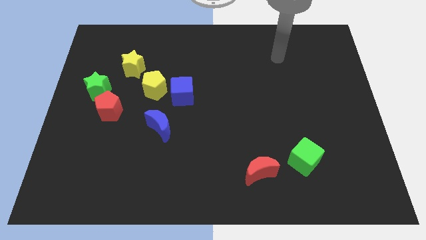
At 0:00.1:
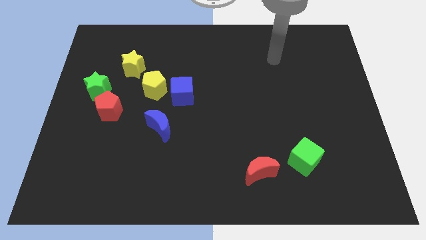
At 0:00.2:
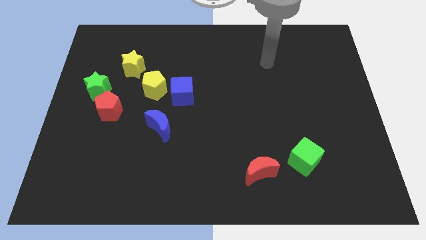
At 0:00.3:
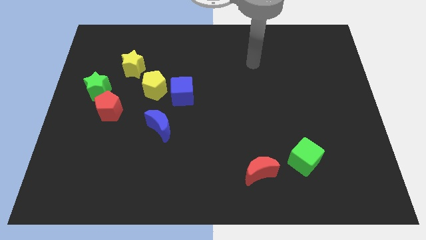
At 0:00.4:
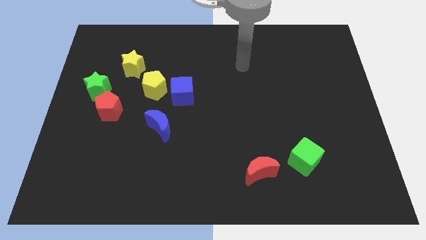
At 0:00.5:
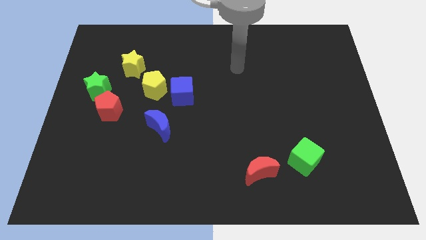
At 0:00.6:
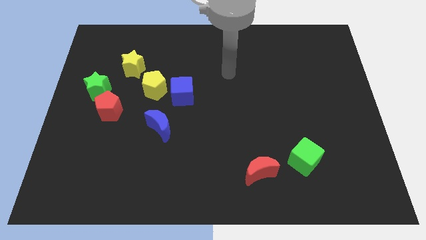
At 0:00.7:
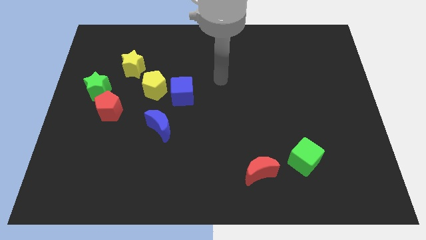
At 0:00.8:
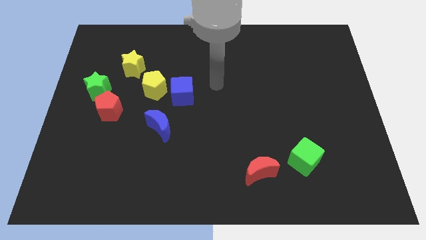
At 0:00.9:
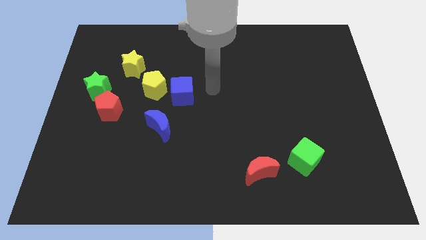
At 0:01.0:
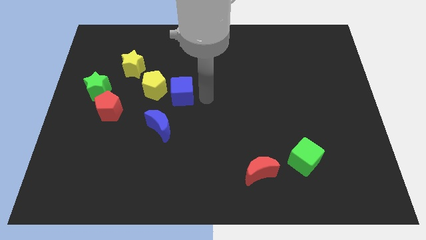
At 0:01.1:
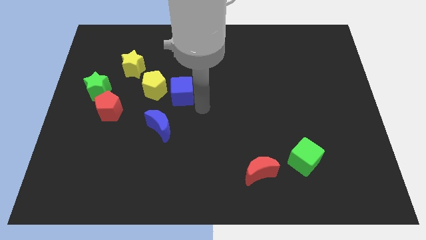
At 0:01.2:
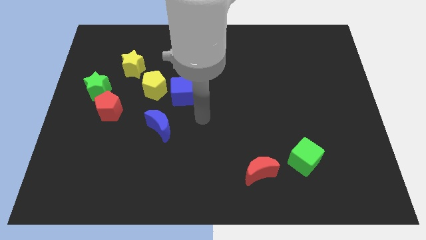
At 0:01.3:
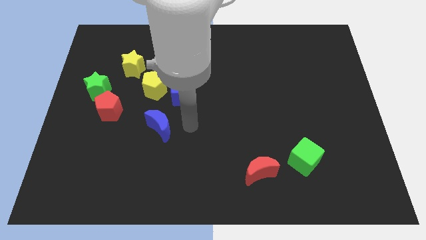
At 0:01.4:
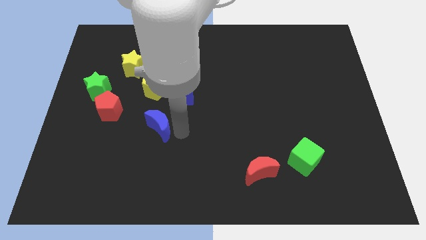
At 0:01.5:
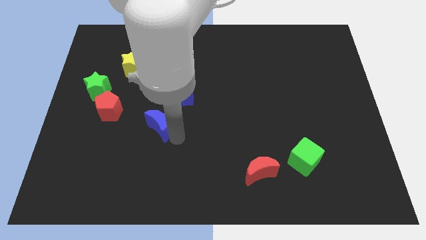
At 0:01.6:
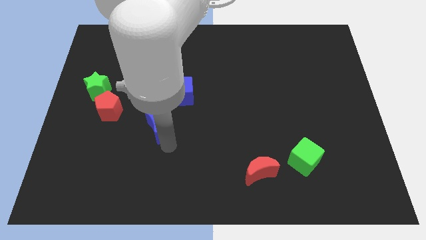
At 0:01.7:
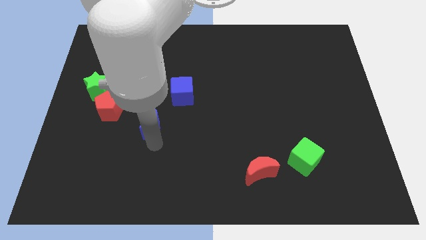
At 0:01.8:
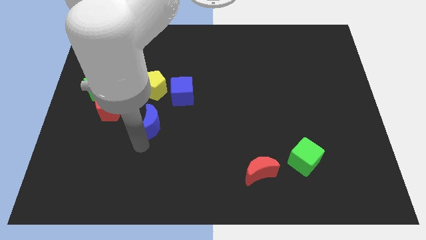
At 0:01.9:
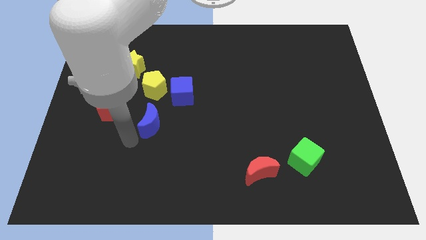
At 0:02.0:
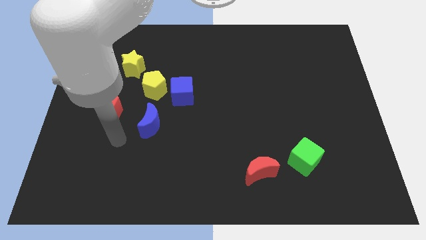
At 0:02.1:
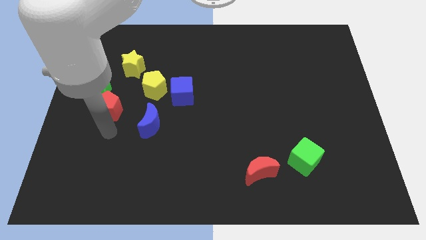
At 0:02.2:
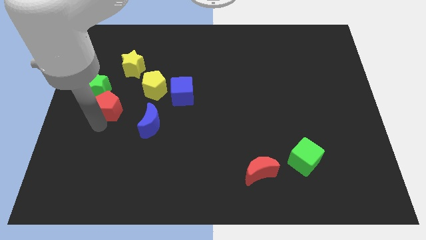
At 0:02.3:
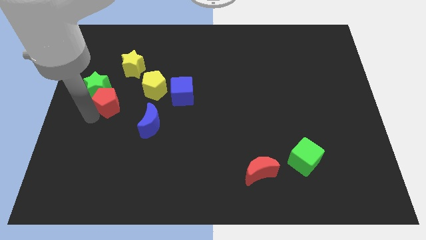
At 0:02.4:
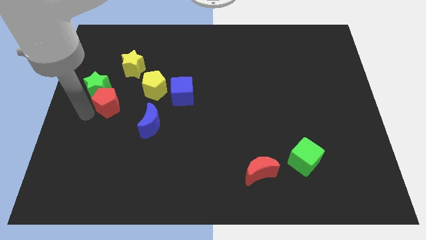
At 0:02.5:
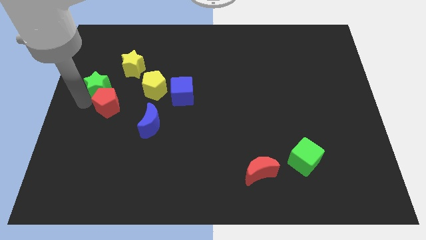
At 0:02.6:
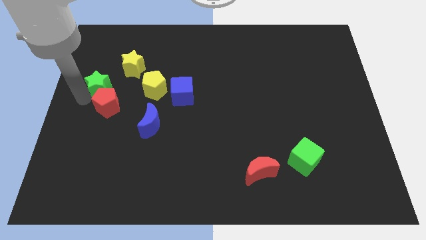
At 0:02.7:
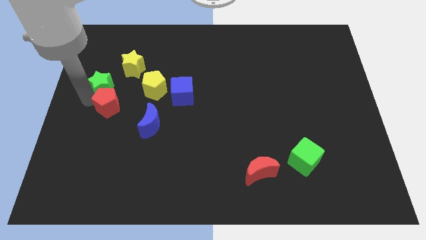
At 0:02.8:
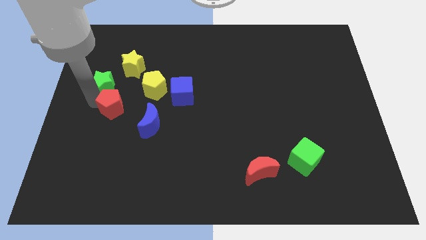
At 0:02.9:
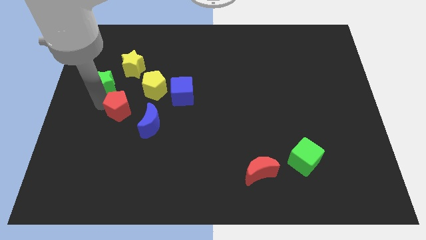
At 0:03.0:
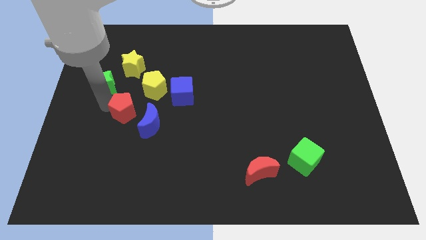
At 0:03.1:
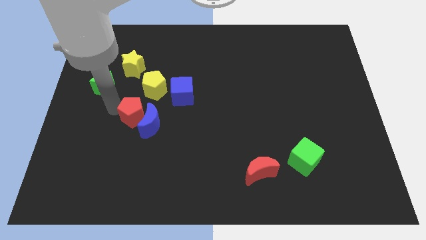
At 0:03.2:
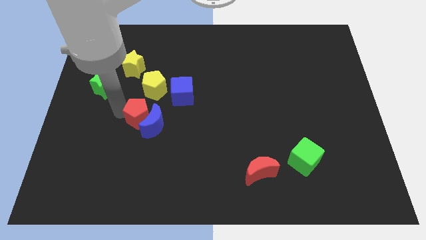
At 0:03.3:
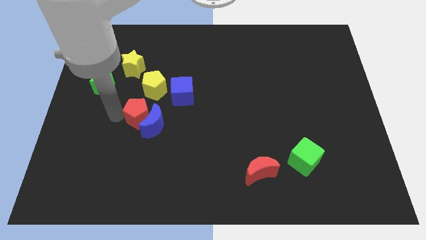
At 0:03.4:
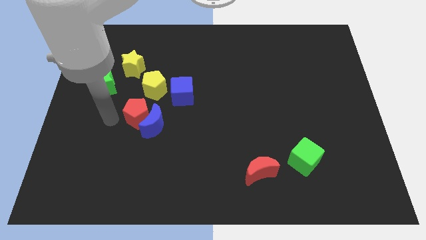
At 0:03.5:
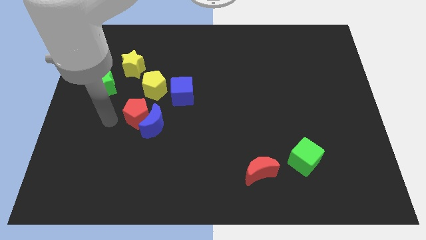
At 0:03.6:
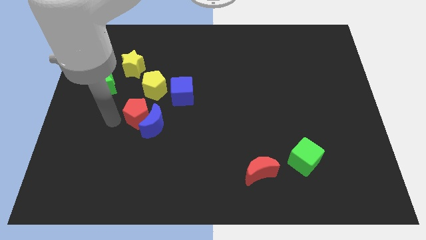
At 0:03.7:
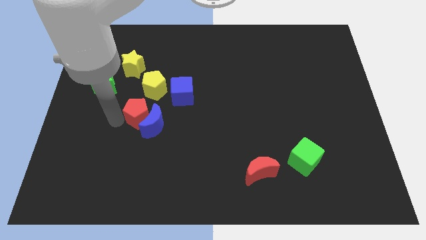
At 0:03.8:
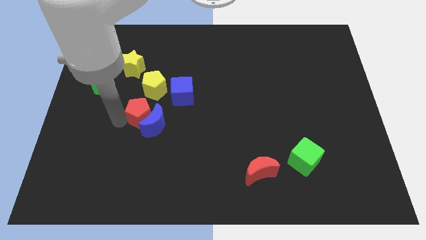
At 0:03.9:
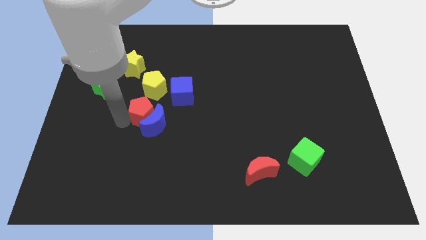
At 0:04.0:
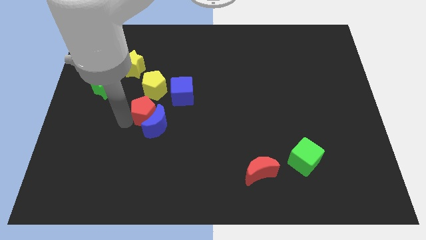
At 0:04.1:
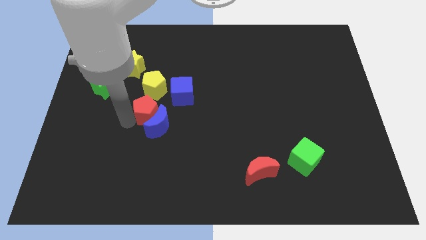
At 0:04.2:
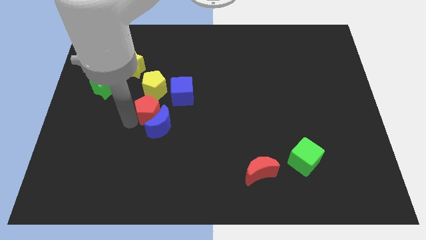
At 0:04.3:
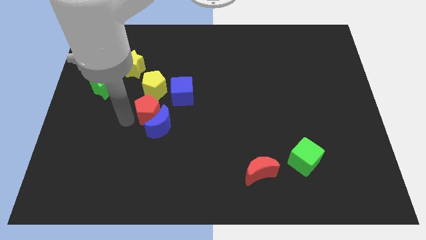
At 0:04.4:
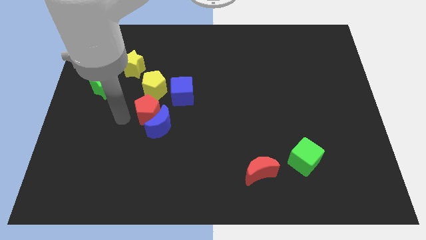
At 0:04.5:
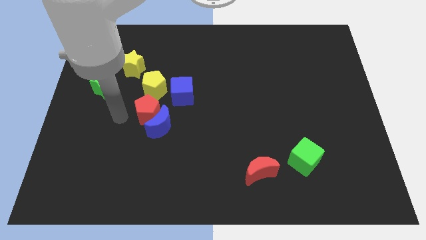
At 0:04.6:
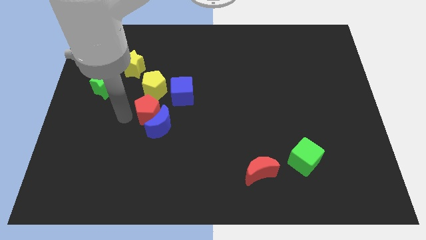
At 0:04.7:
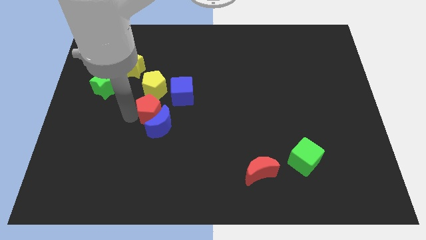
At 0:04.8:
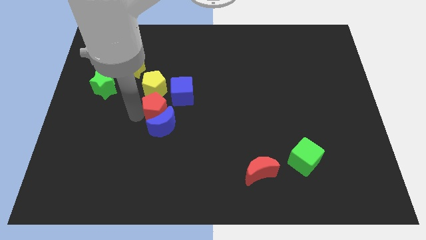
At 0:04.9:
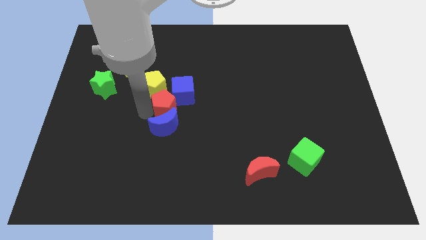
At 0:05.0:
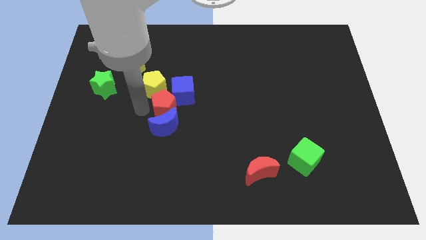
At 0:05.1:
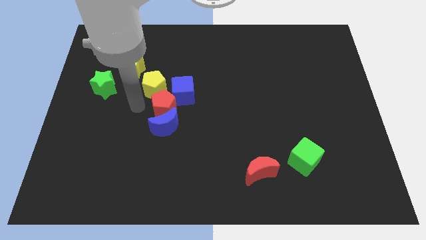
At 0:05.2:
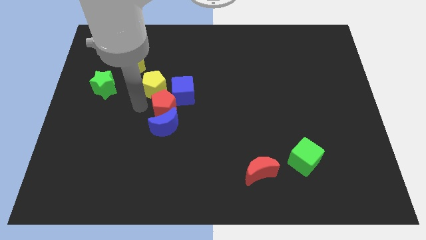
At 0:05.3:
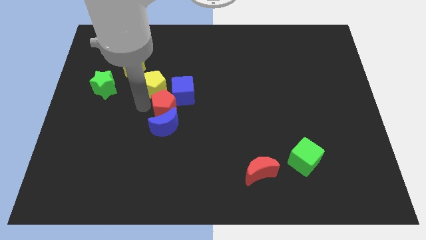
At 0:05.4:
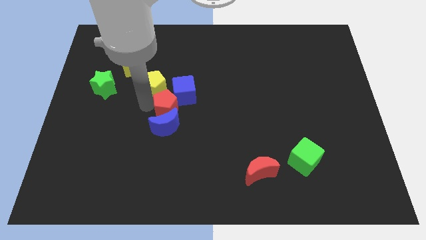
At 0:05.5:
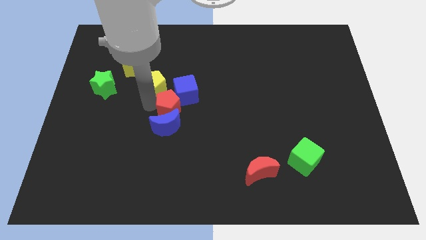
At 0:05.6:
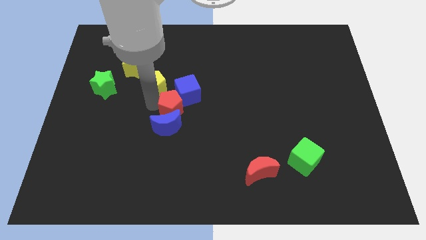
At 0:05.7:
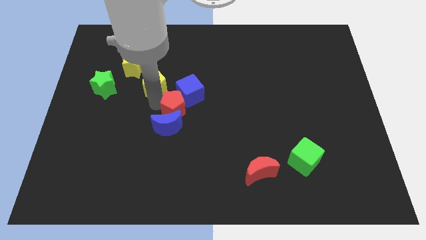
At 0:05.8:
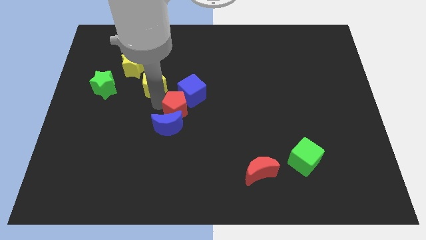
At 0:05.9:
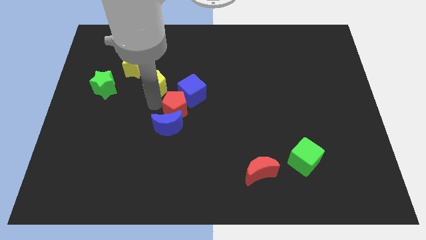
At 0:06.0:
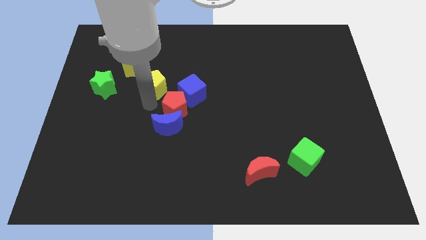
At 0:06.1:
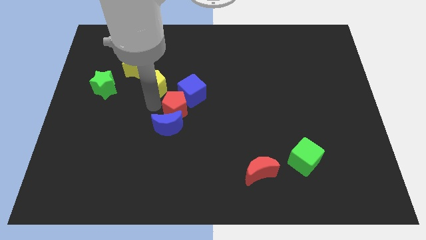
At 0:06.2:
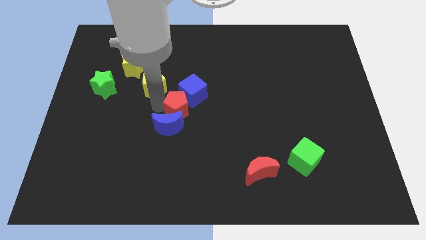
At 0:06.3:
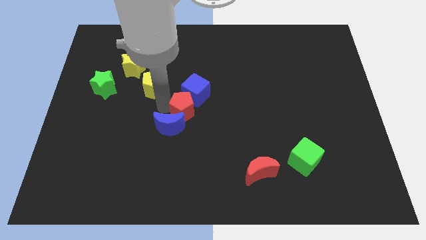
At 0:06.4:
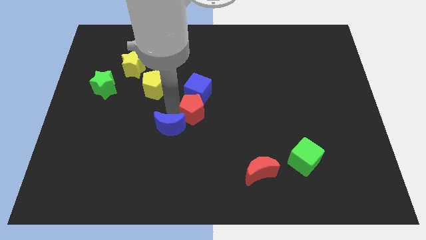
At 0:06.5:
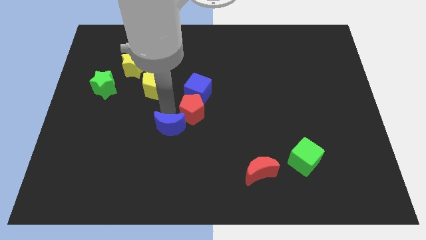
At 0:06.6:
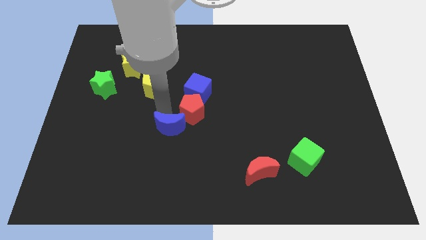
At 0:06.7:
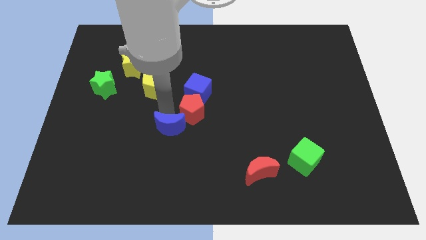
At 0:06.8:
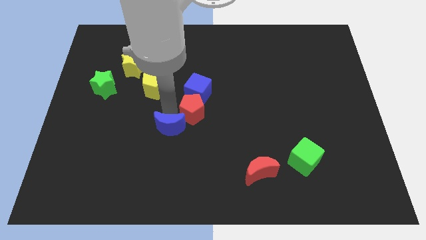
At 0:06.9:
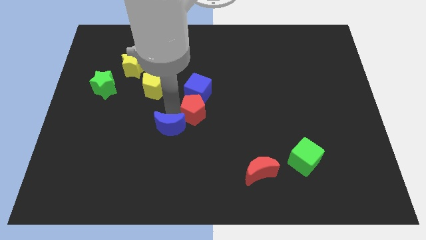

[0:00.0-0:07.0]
push the red pentagon to the right

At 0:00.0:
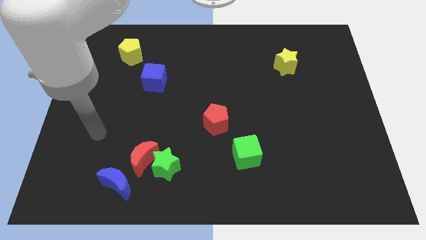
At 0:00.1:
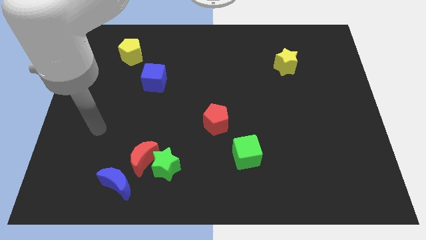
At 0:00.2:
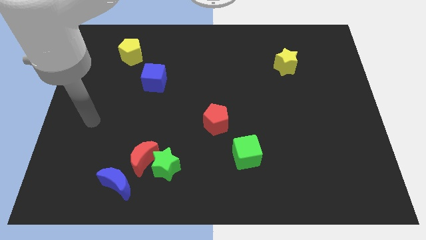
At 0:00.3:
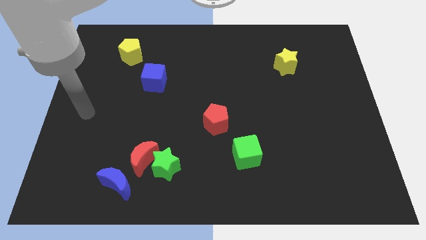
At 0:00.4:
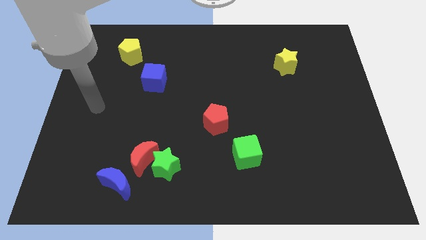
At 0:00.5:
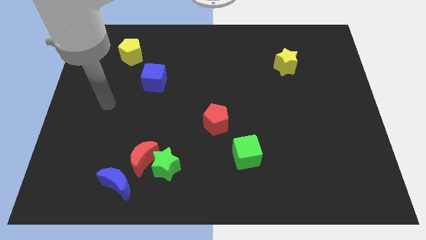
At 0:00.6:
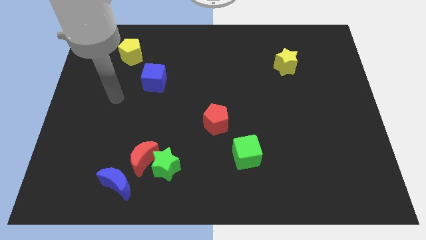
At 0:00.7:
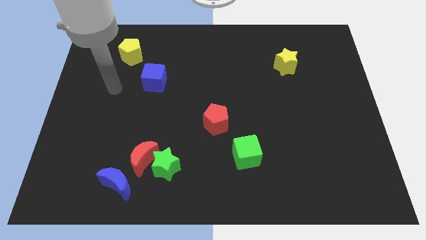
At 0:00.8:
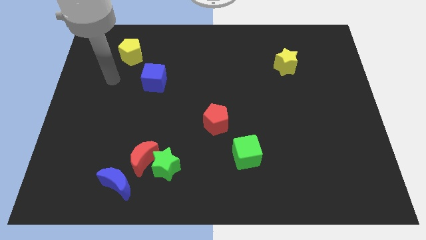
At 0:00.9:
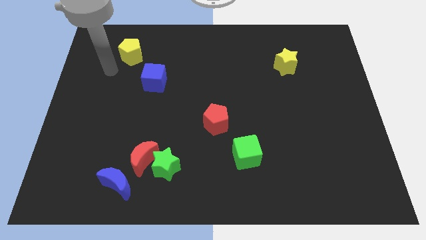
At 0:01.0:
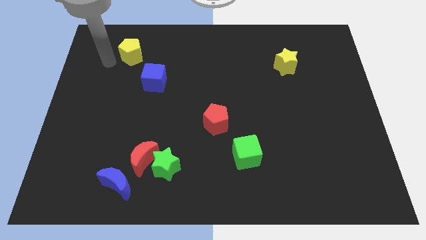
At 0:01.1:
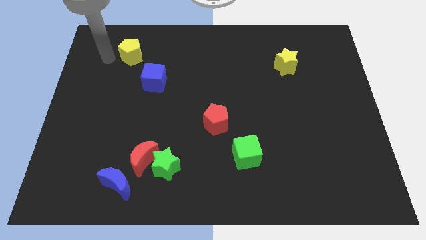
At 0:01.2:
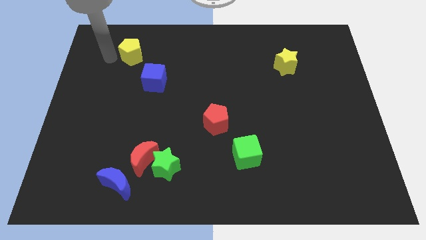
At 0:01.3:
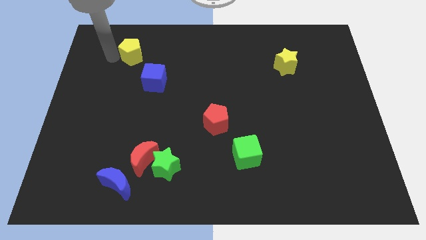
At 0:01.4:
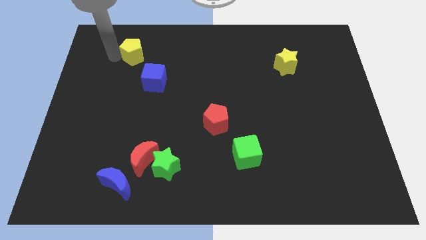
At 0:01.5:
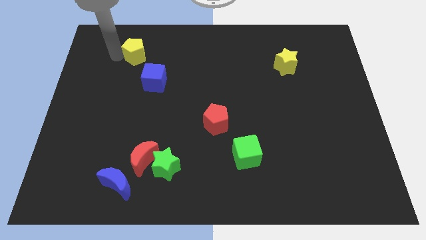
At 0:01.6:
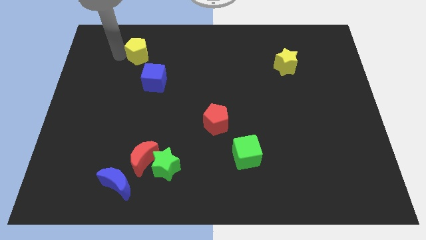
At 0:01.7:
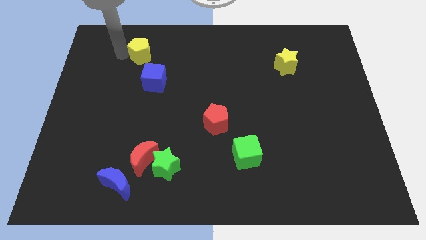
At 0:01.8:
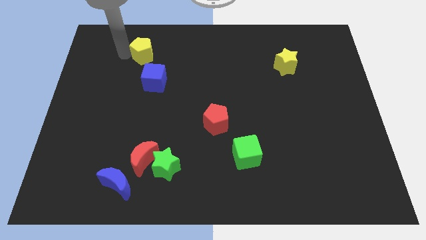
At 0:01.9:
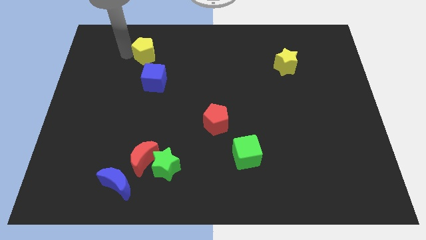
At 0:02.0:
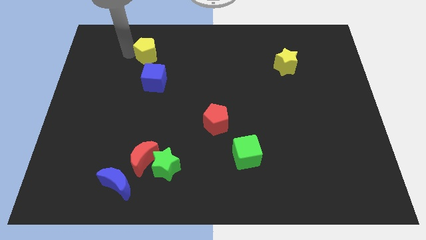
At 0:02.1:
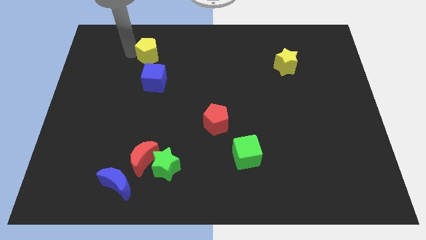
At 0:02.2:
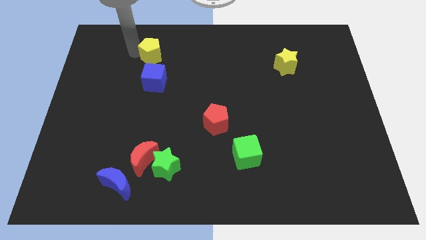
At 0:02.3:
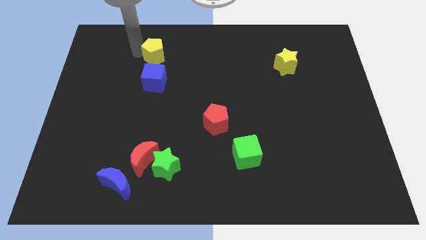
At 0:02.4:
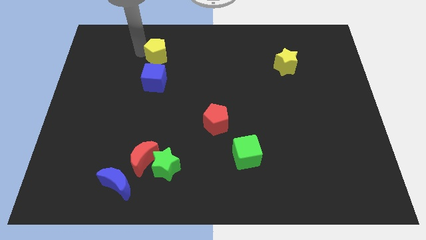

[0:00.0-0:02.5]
slightly push the yellow pentagon to the right
